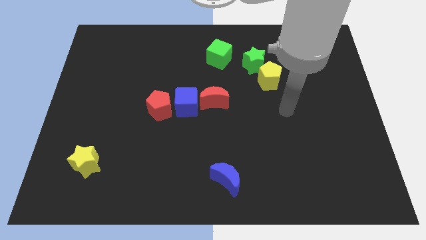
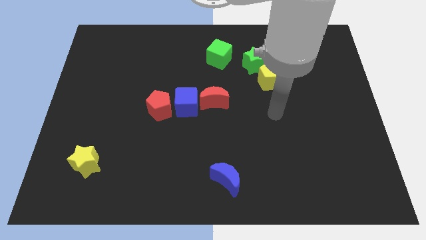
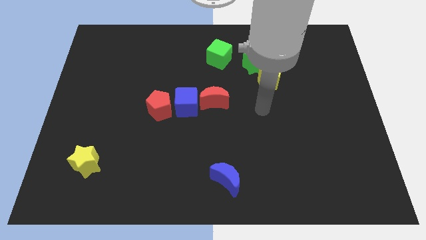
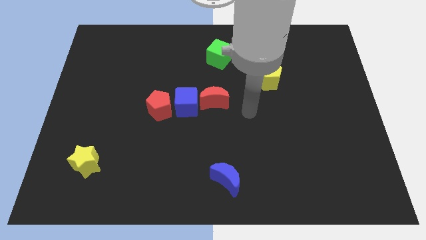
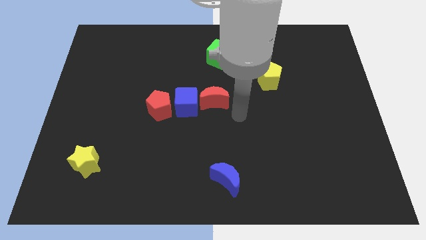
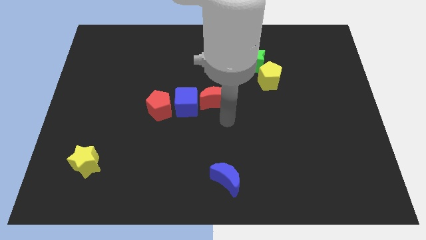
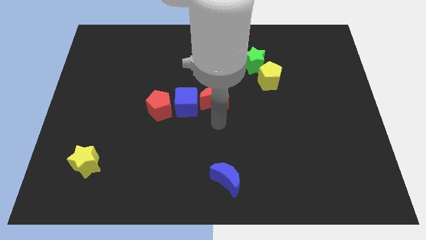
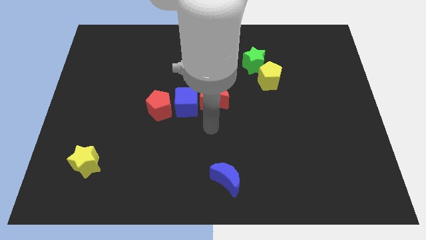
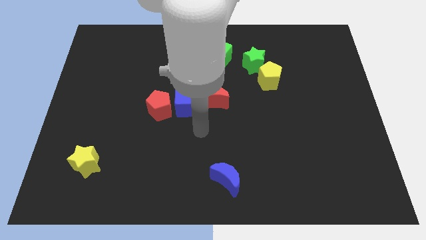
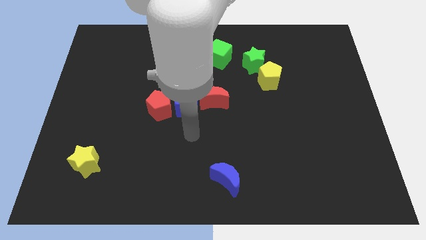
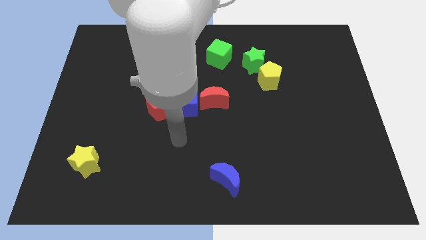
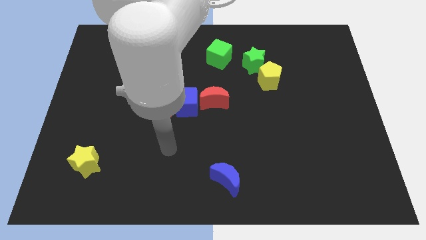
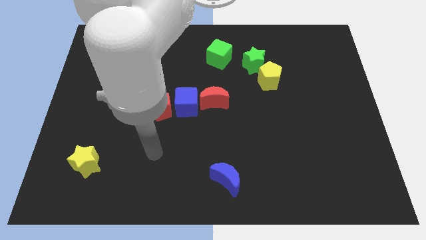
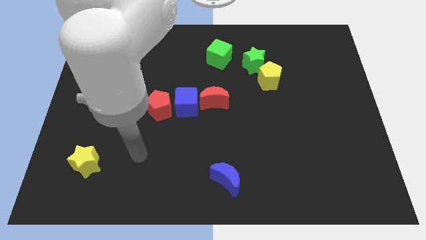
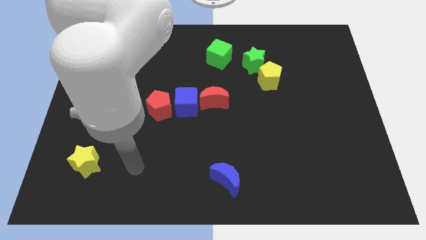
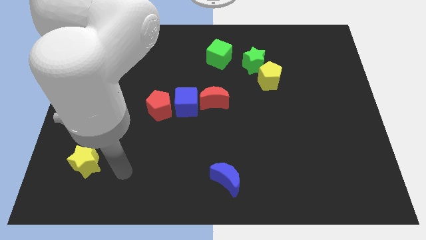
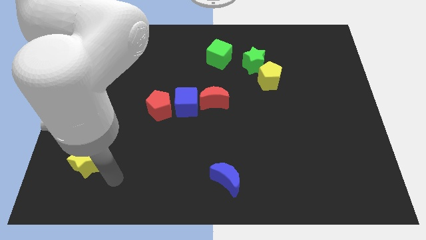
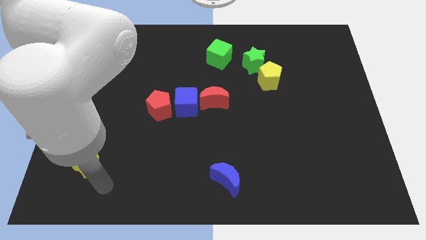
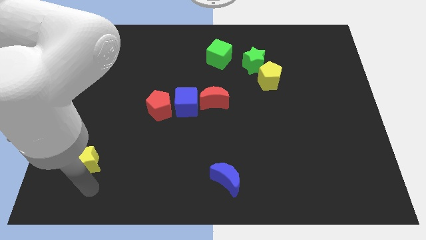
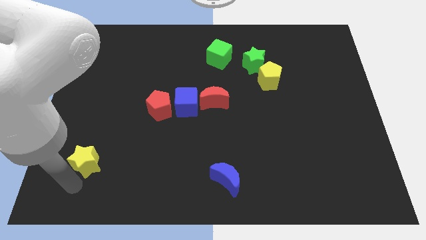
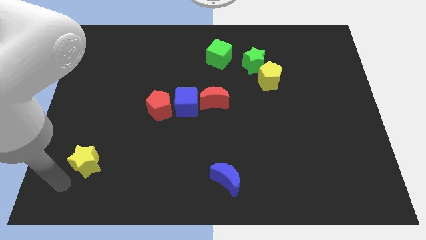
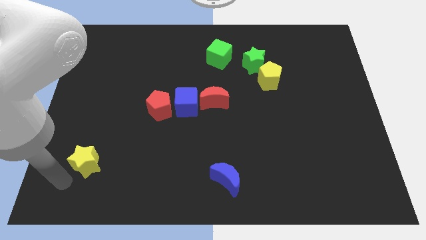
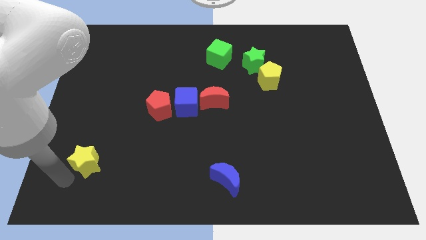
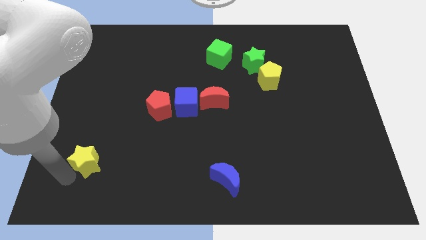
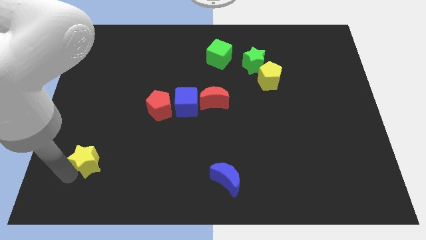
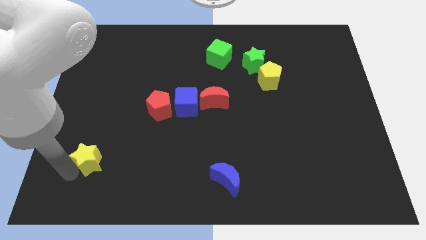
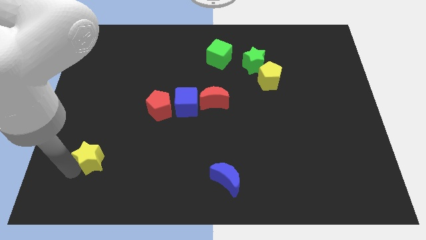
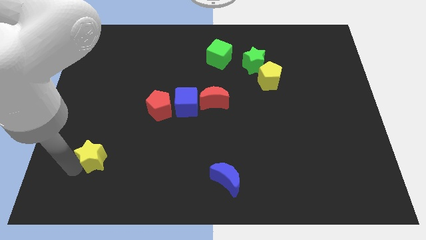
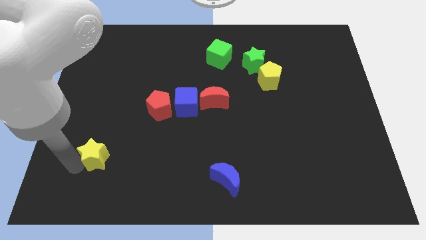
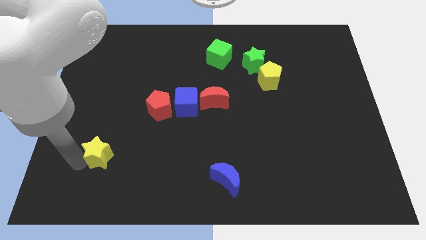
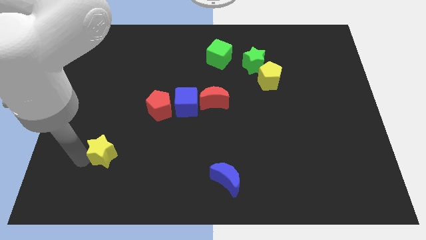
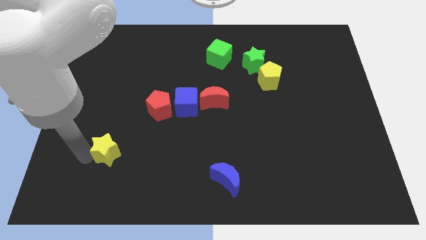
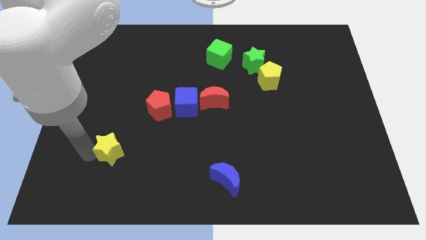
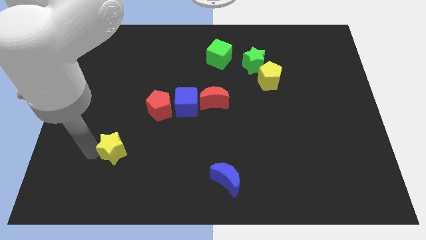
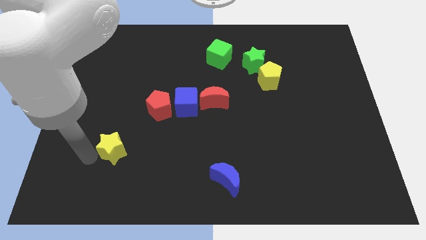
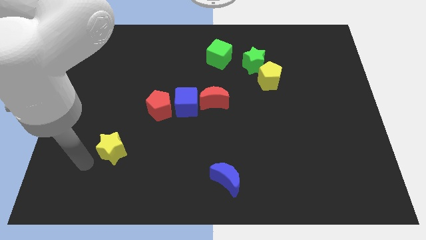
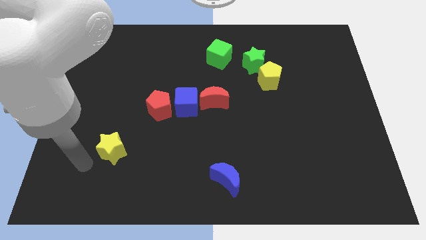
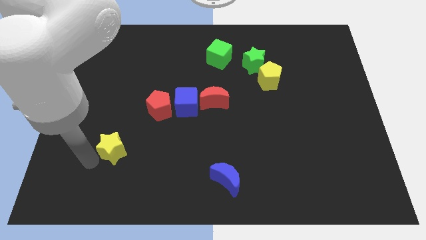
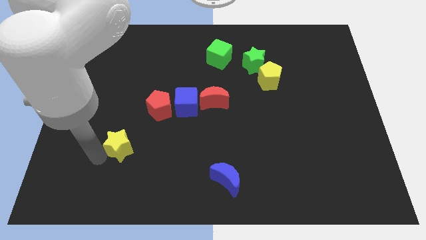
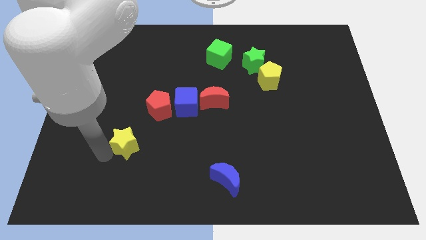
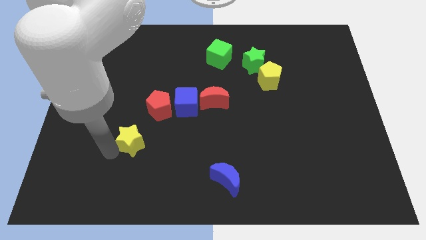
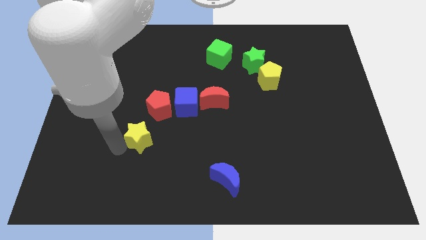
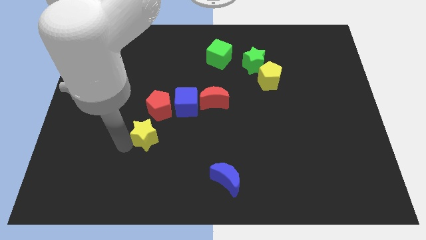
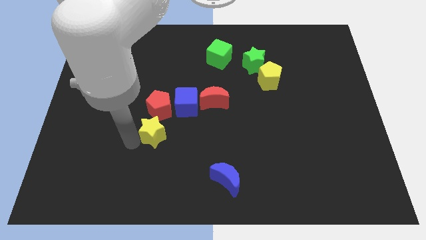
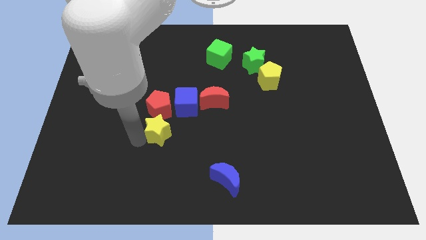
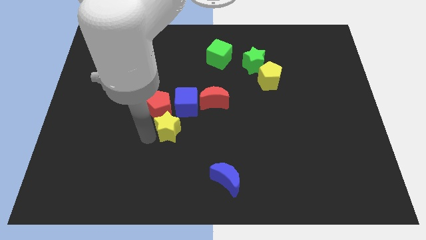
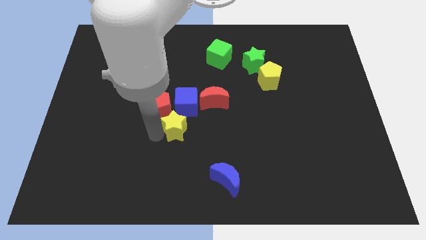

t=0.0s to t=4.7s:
push the yellow star diagonally down and to the left of the red moon

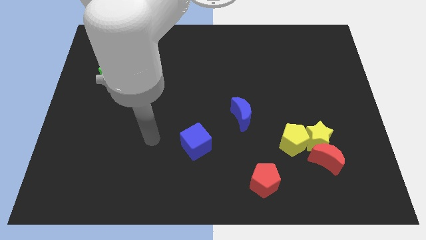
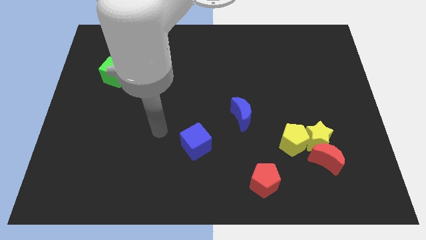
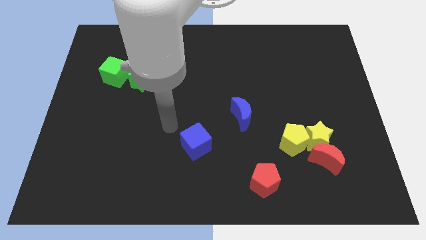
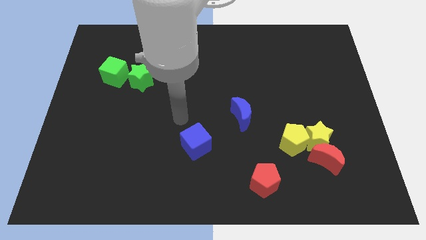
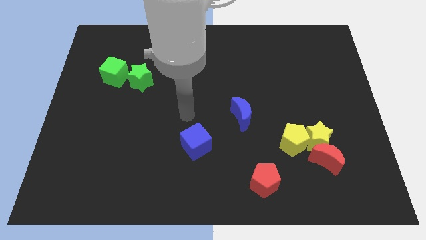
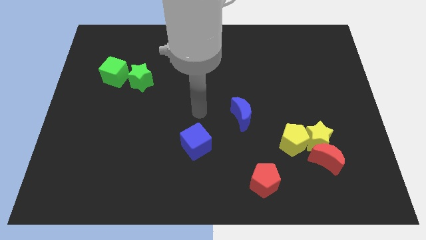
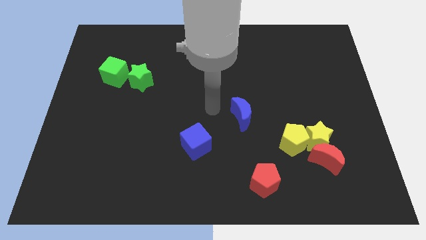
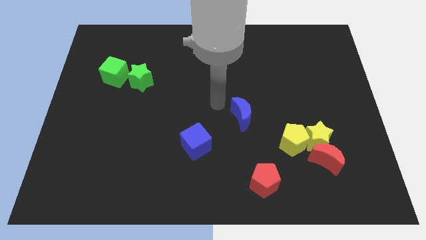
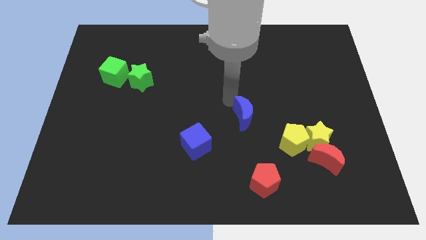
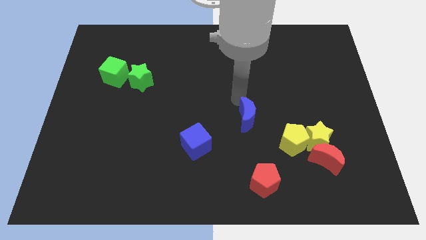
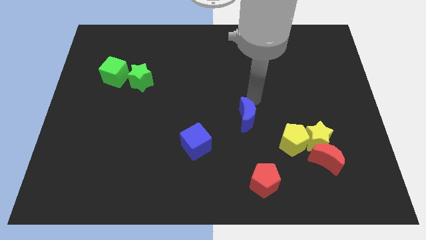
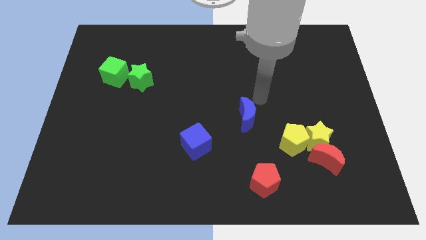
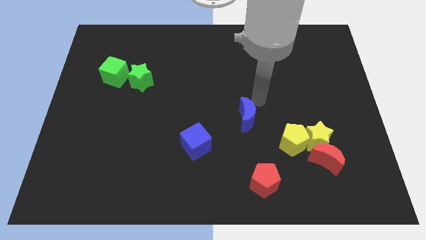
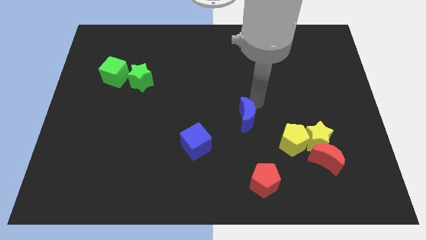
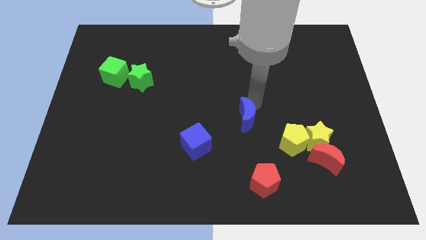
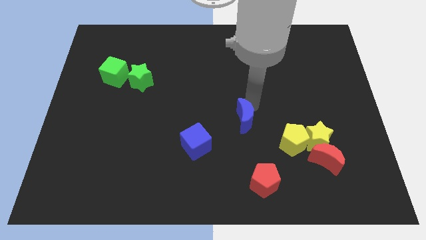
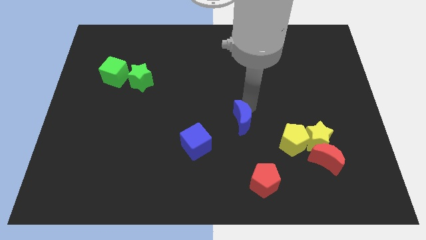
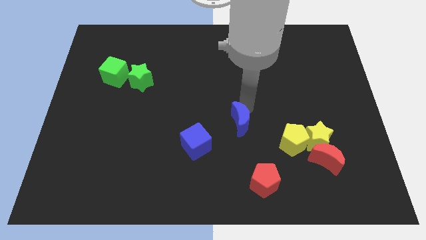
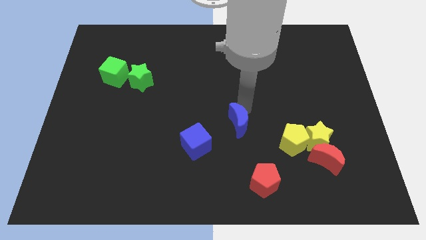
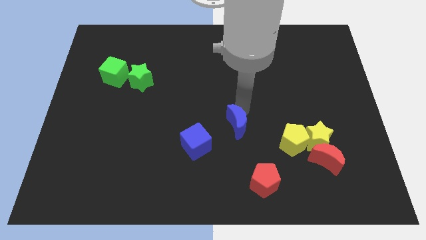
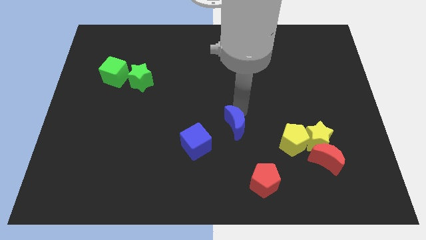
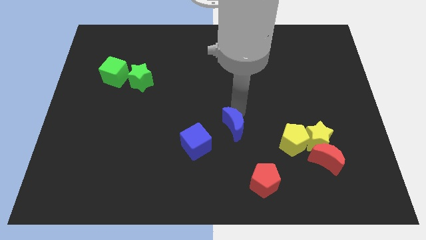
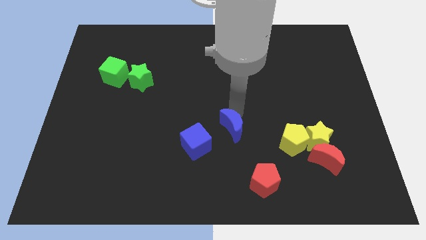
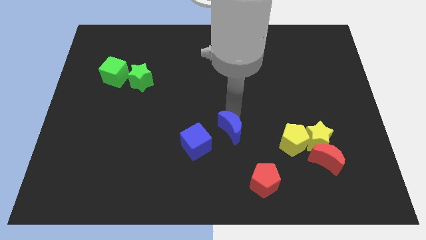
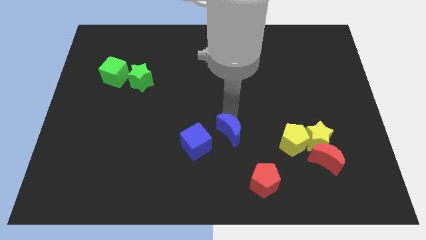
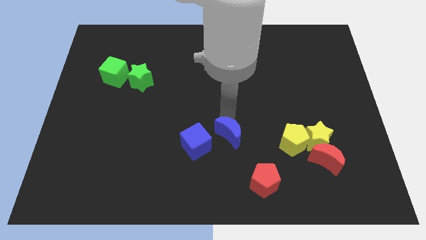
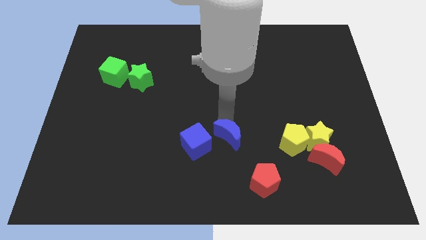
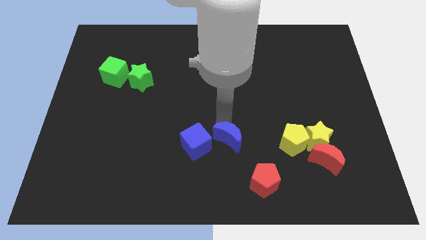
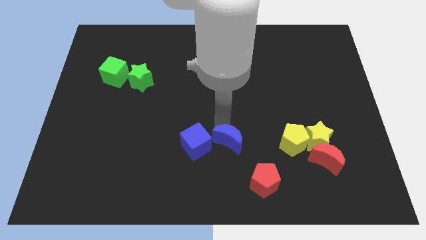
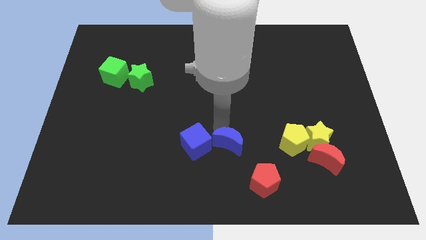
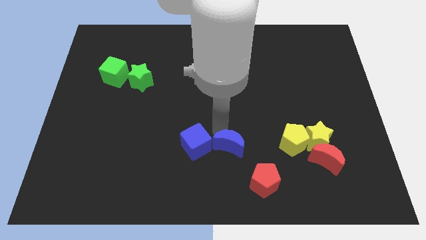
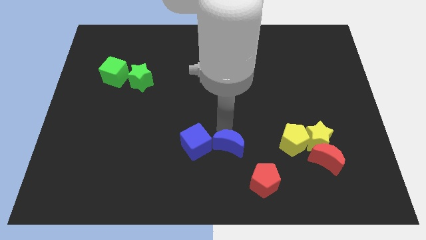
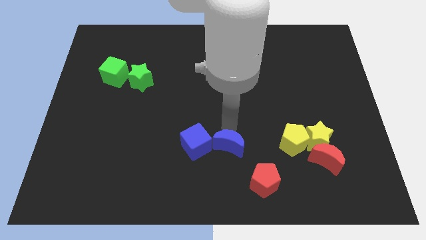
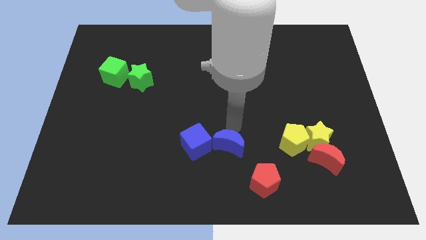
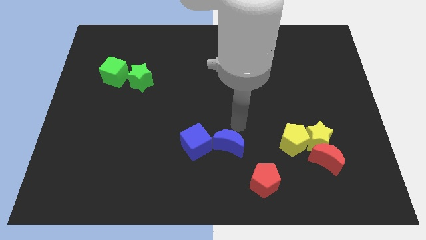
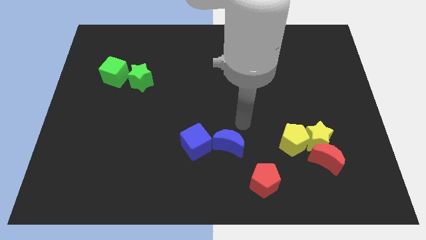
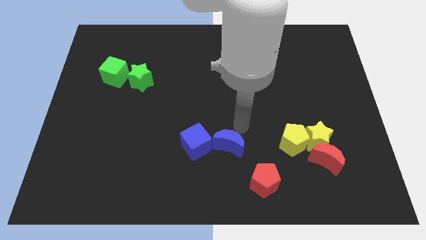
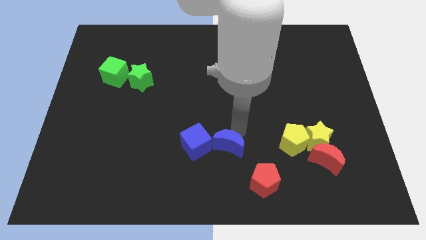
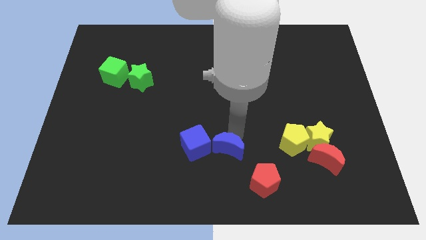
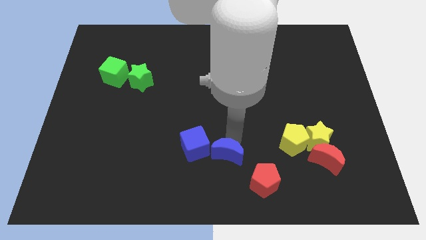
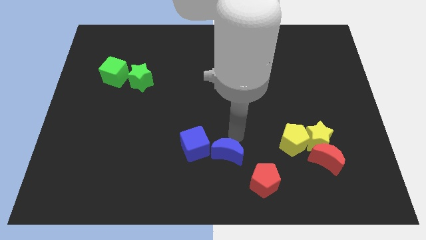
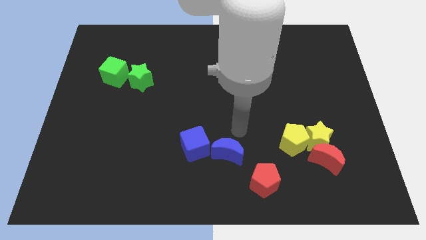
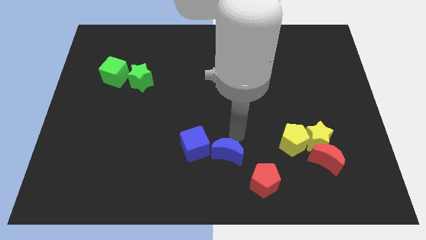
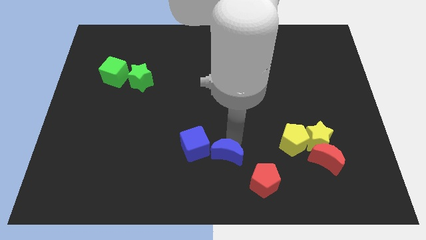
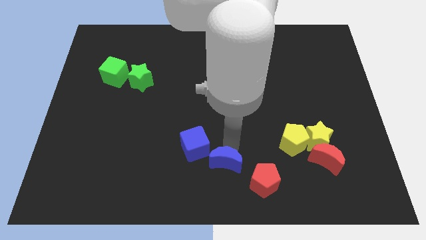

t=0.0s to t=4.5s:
slide the blue moon to the left of the red pentagon
